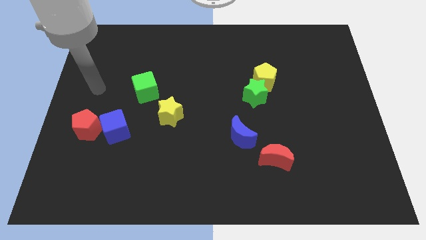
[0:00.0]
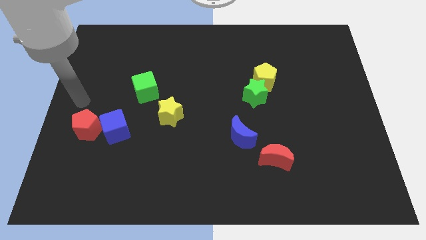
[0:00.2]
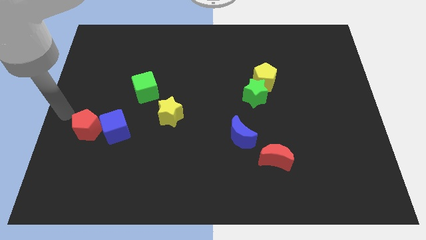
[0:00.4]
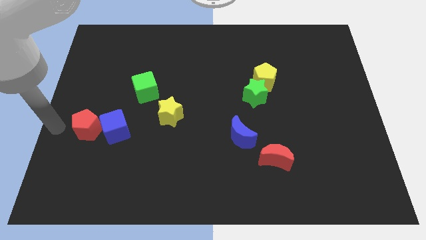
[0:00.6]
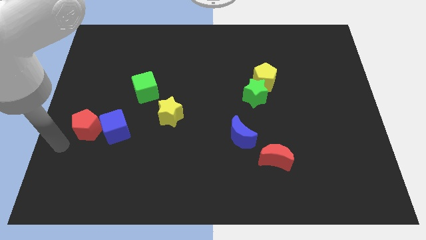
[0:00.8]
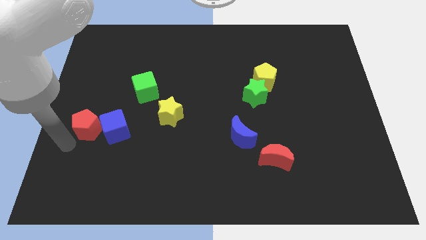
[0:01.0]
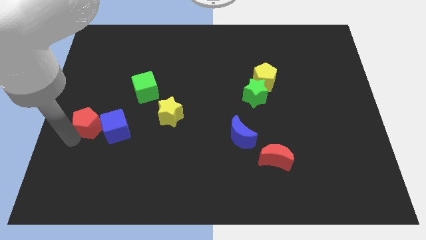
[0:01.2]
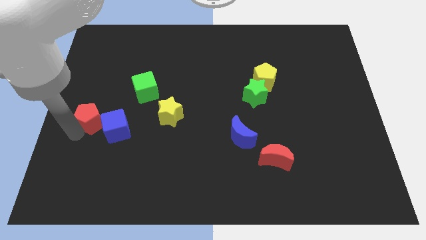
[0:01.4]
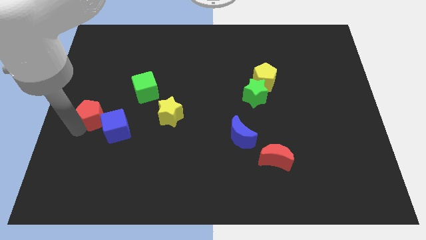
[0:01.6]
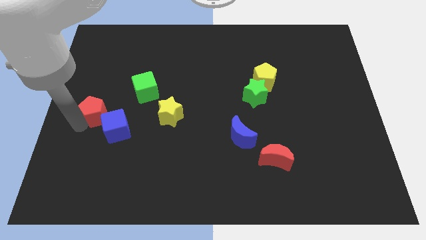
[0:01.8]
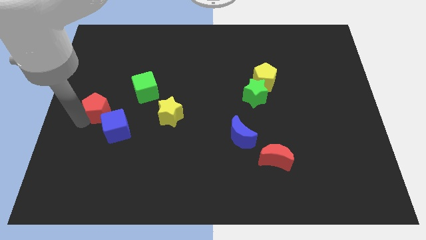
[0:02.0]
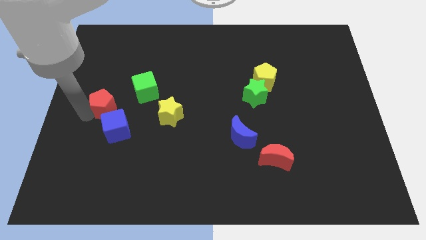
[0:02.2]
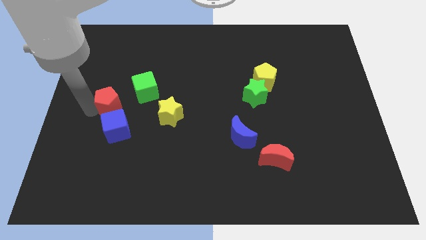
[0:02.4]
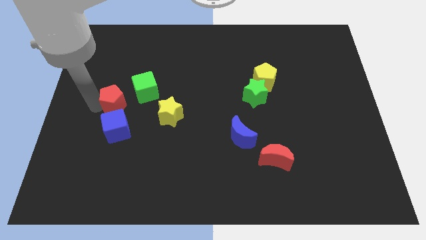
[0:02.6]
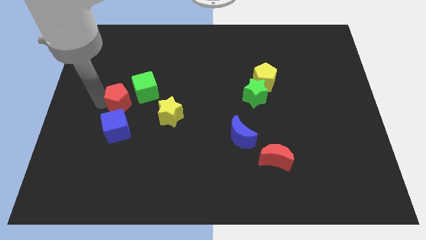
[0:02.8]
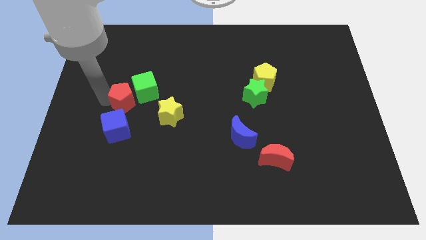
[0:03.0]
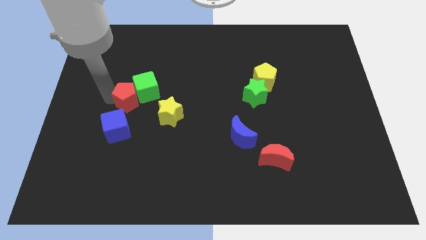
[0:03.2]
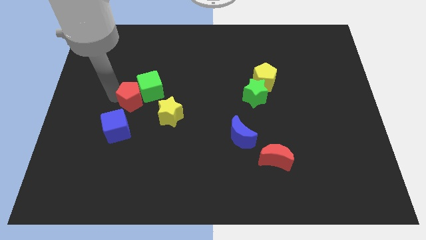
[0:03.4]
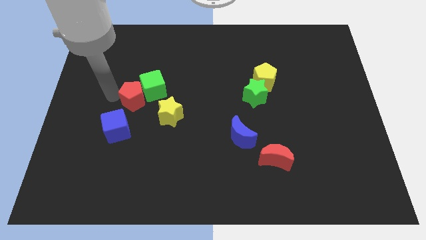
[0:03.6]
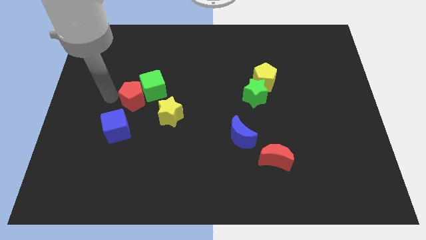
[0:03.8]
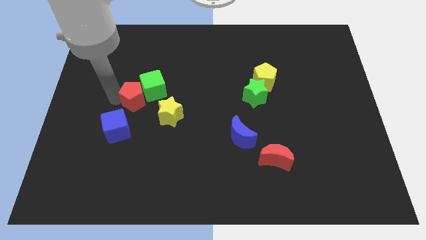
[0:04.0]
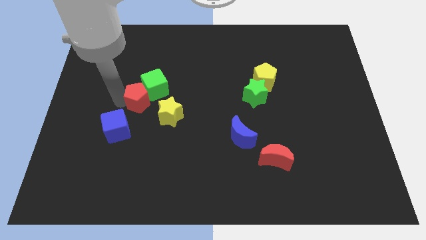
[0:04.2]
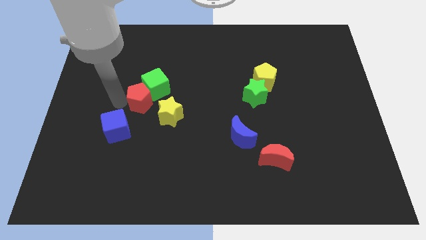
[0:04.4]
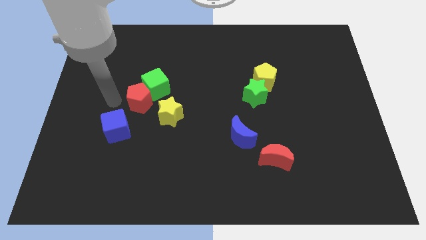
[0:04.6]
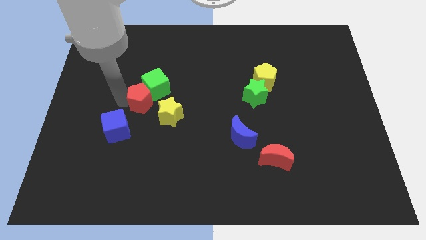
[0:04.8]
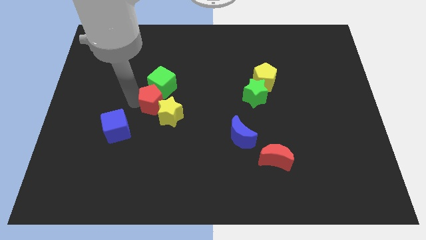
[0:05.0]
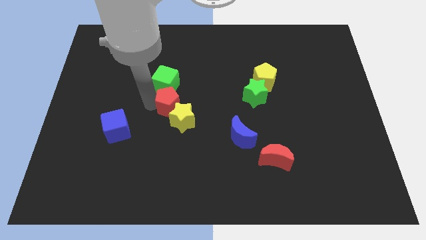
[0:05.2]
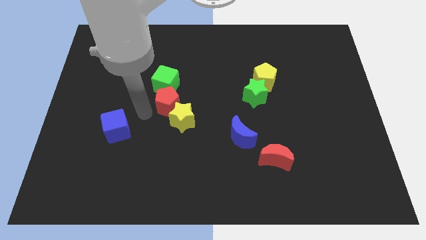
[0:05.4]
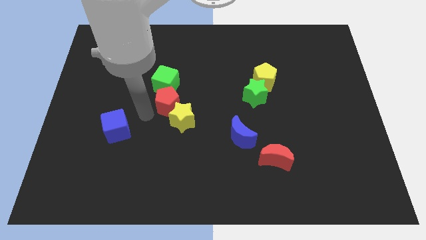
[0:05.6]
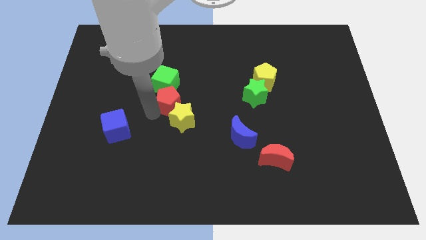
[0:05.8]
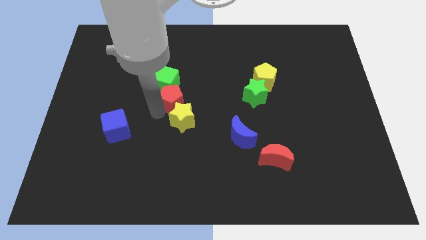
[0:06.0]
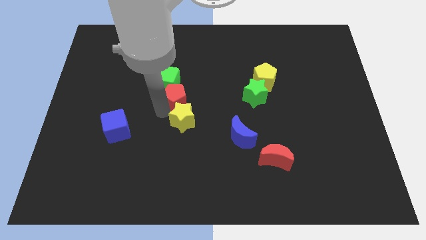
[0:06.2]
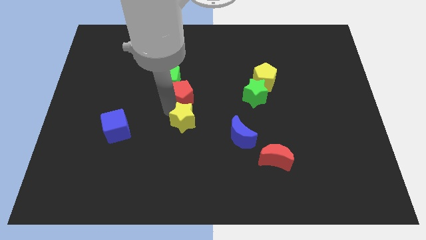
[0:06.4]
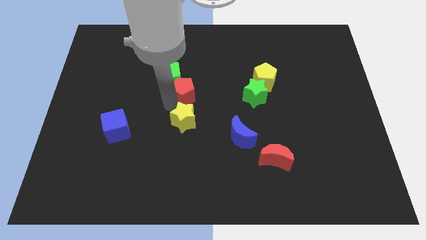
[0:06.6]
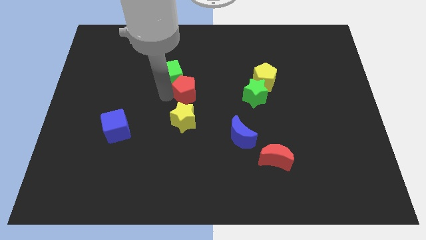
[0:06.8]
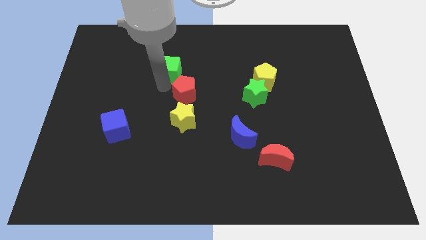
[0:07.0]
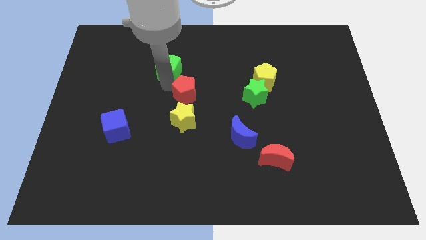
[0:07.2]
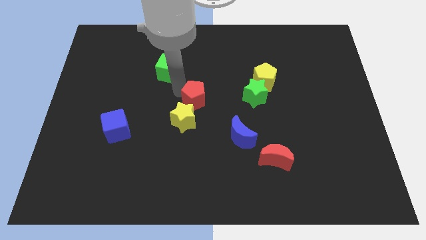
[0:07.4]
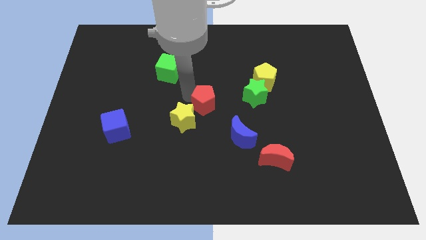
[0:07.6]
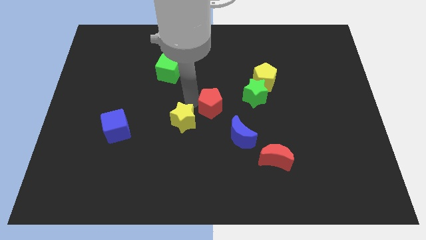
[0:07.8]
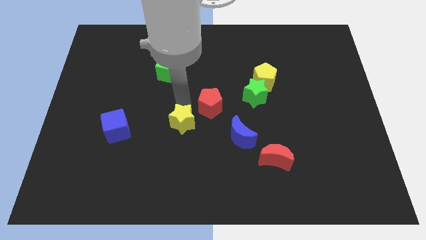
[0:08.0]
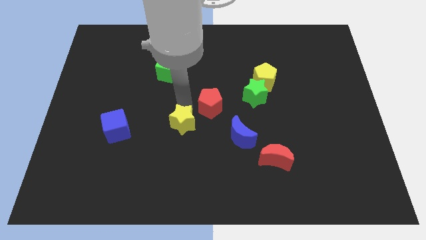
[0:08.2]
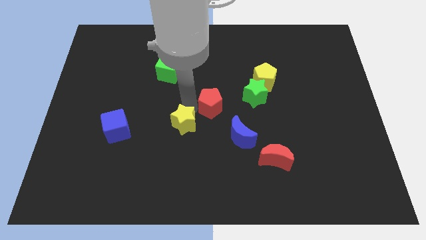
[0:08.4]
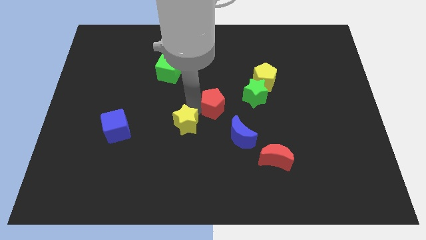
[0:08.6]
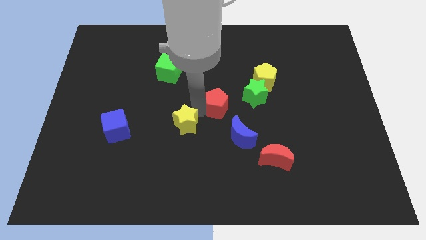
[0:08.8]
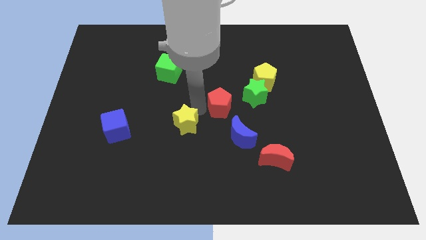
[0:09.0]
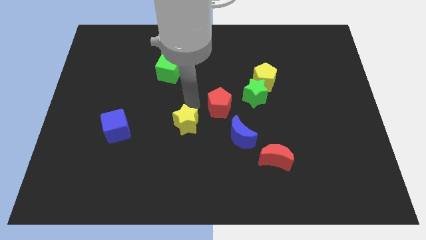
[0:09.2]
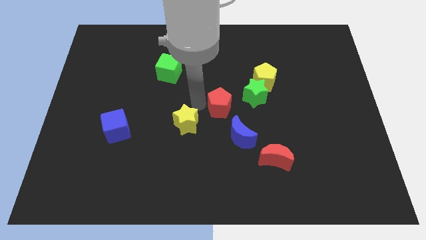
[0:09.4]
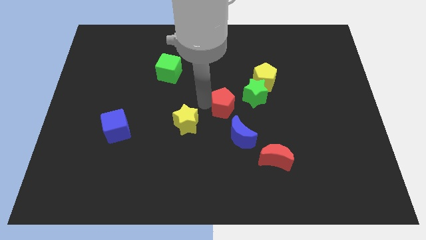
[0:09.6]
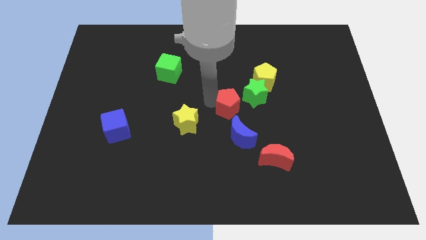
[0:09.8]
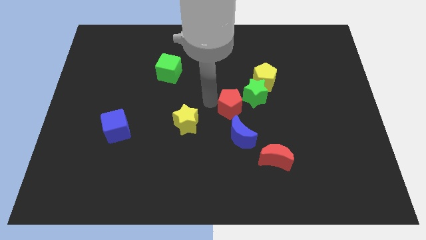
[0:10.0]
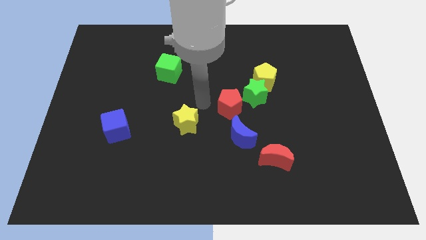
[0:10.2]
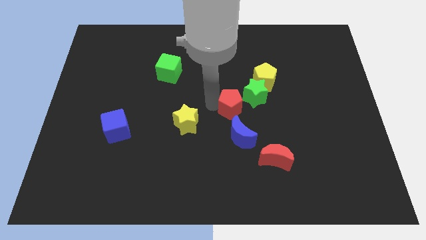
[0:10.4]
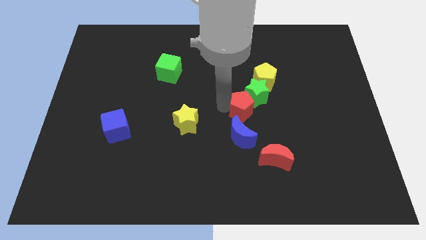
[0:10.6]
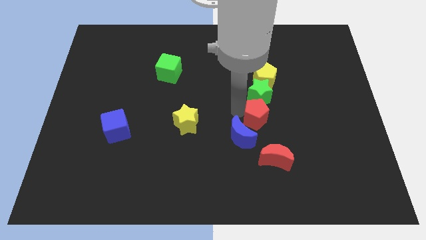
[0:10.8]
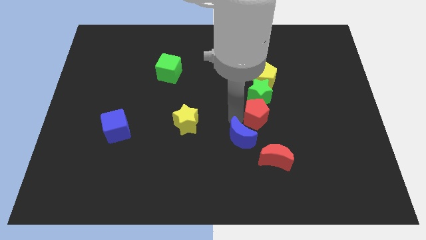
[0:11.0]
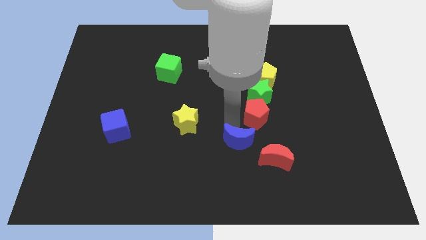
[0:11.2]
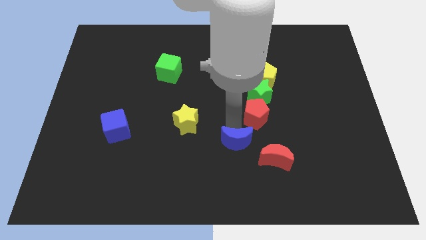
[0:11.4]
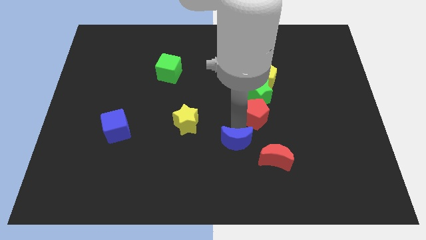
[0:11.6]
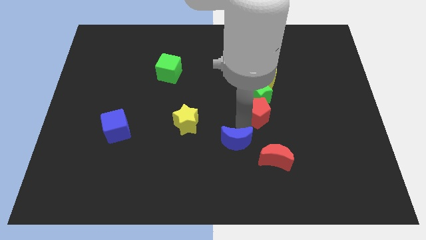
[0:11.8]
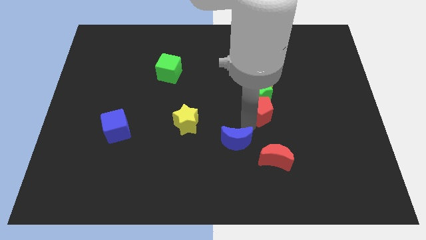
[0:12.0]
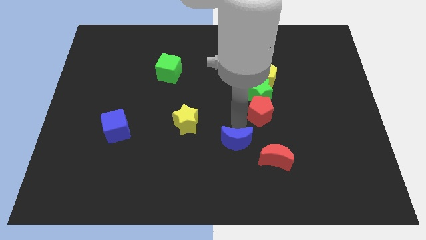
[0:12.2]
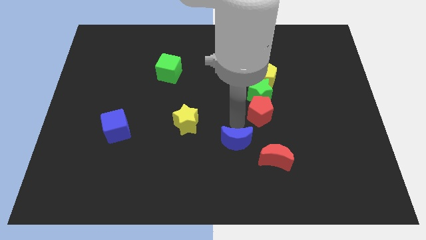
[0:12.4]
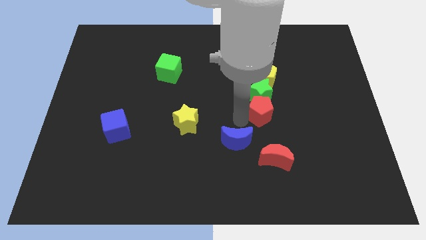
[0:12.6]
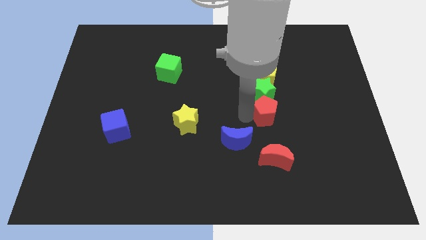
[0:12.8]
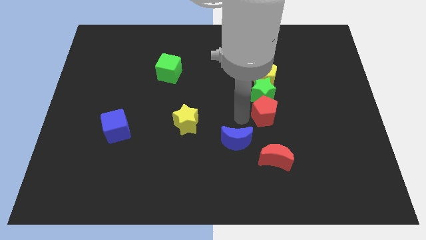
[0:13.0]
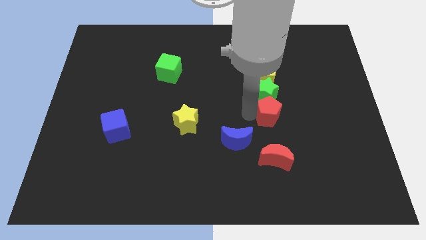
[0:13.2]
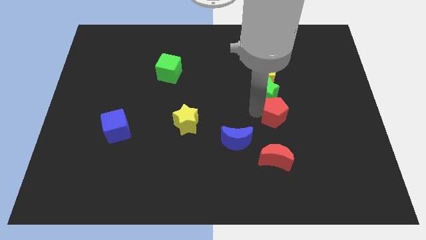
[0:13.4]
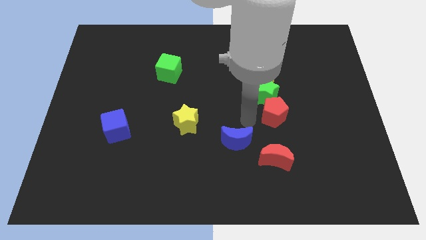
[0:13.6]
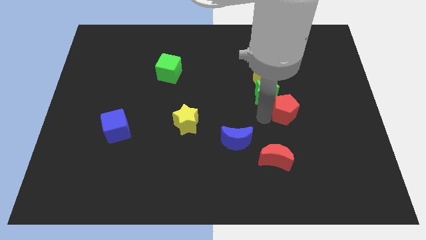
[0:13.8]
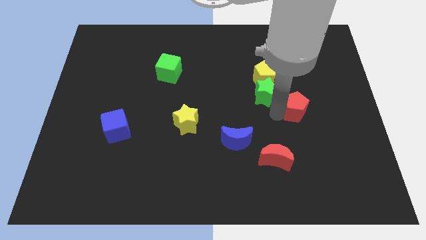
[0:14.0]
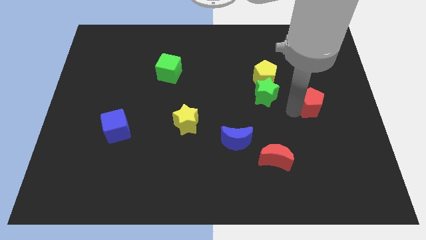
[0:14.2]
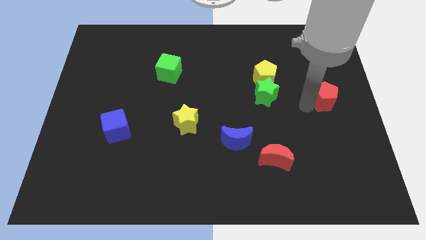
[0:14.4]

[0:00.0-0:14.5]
slide the red pentagon to the right side
